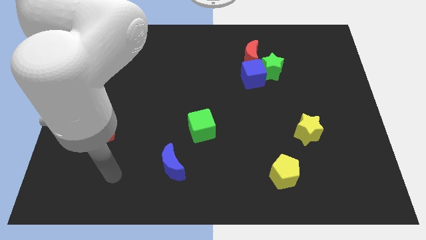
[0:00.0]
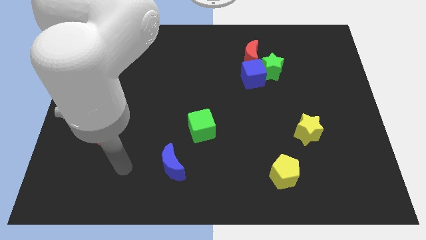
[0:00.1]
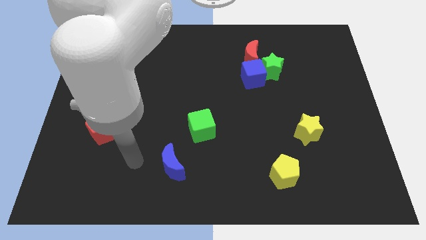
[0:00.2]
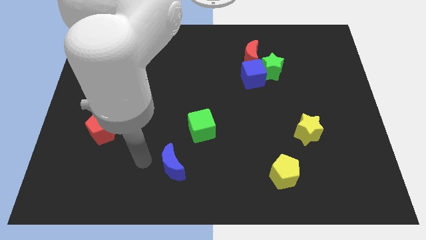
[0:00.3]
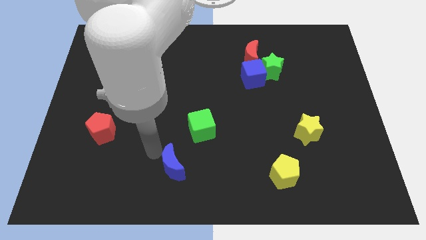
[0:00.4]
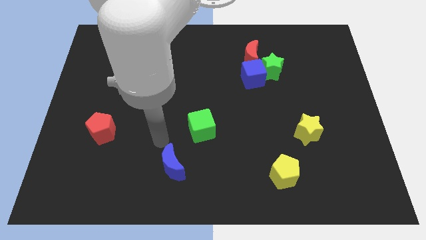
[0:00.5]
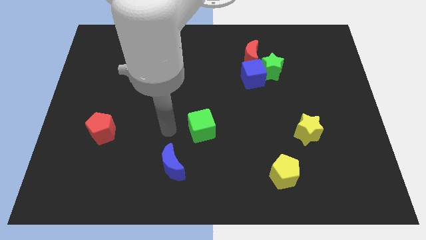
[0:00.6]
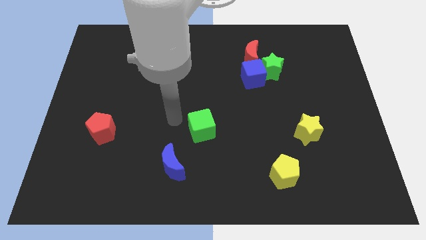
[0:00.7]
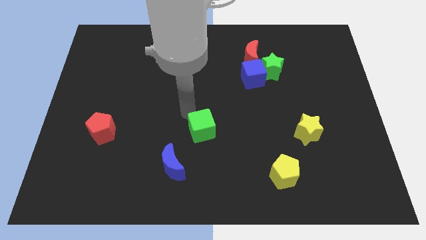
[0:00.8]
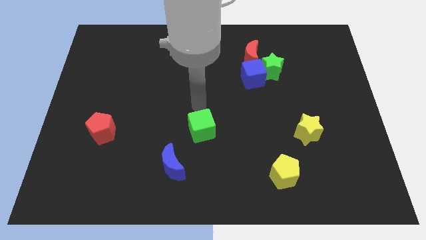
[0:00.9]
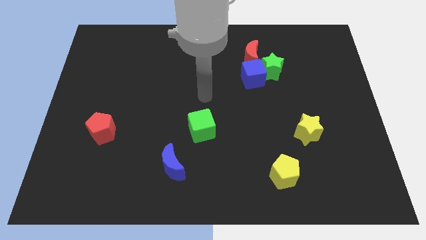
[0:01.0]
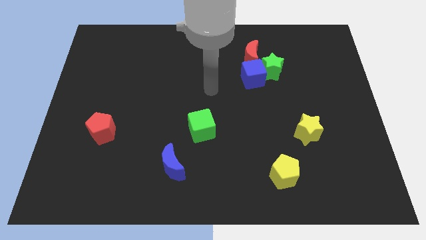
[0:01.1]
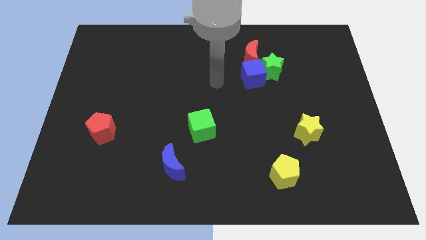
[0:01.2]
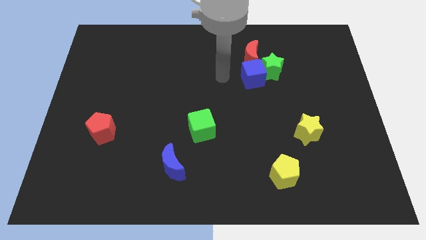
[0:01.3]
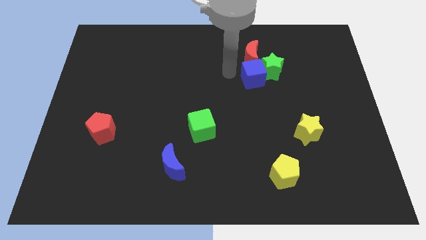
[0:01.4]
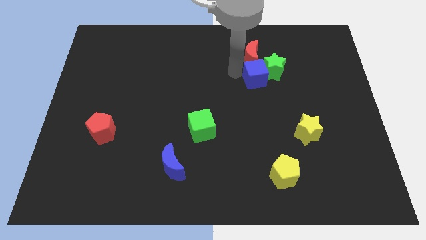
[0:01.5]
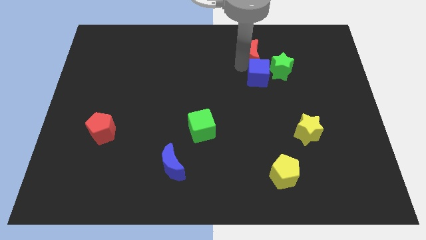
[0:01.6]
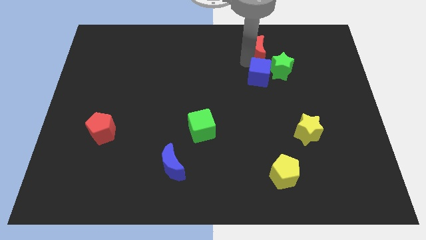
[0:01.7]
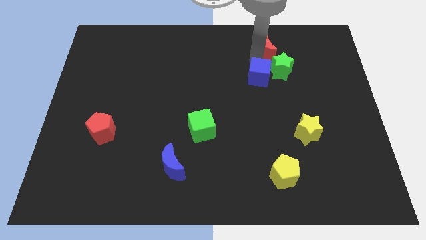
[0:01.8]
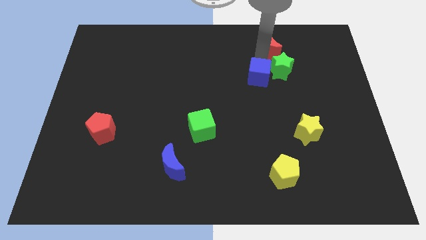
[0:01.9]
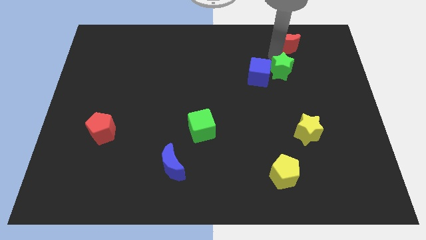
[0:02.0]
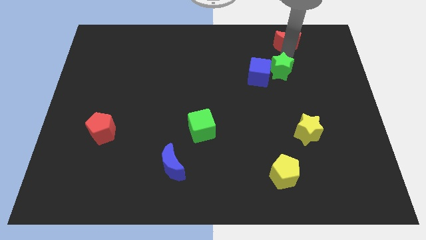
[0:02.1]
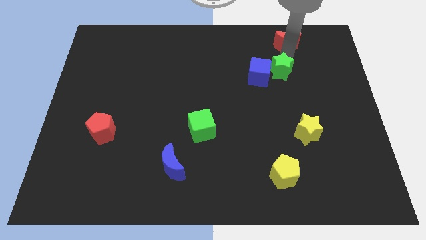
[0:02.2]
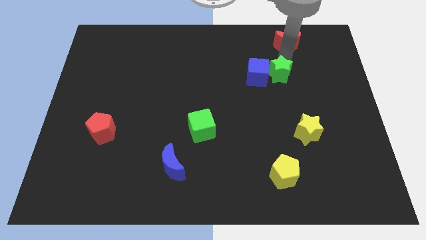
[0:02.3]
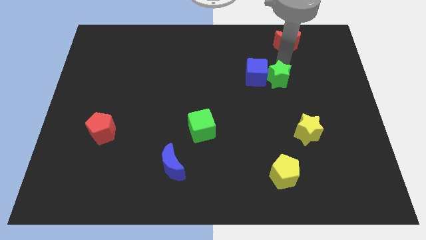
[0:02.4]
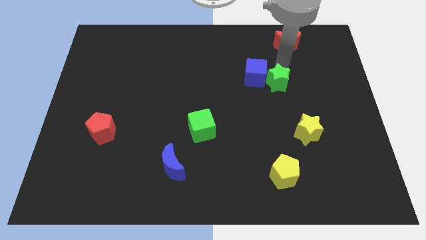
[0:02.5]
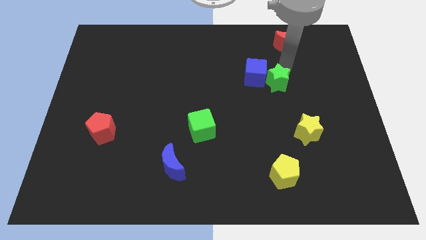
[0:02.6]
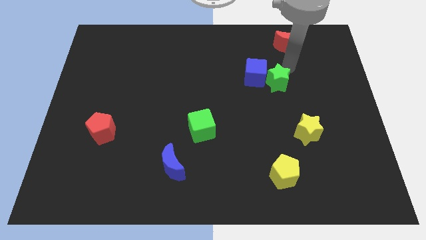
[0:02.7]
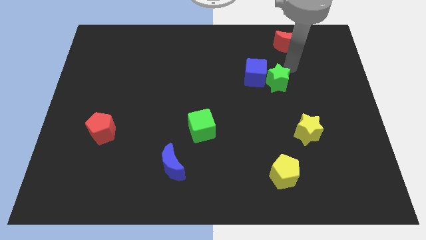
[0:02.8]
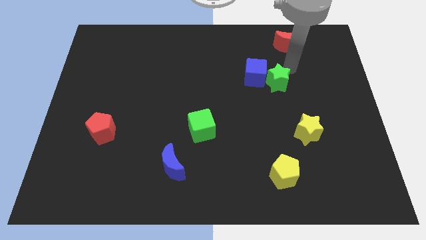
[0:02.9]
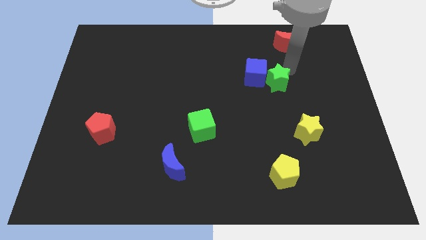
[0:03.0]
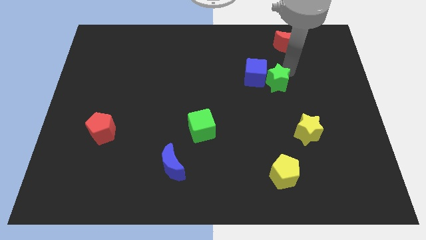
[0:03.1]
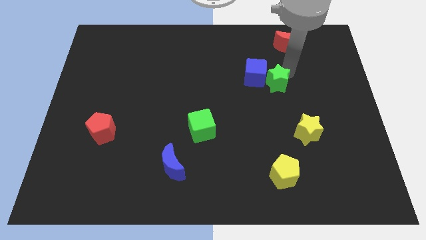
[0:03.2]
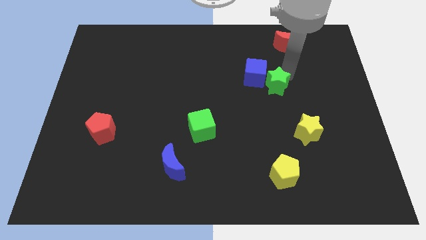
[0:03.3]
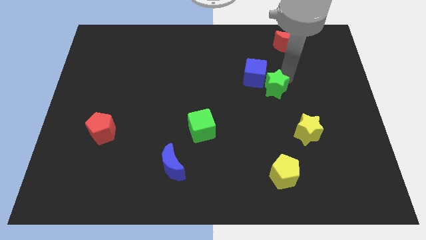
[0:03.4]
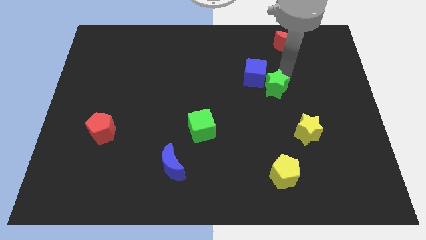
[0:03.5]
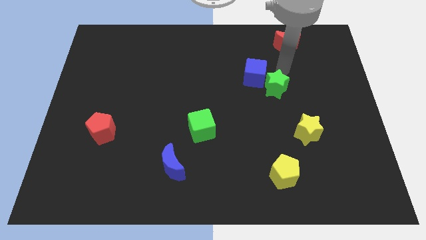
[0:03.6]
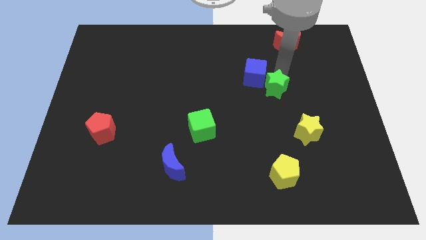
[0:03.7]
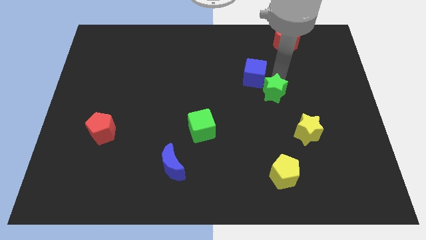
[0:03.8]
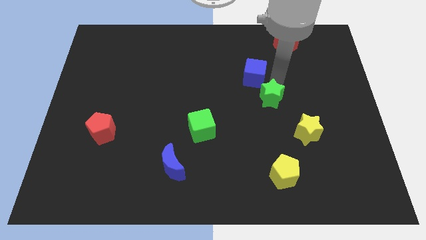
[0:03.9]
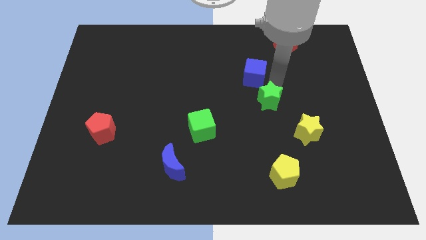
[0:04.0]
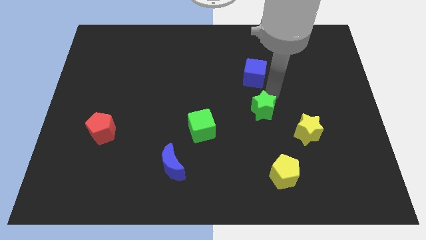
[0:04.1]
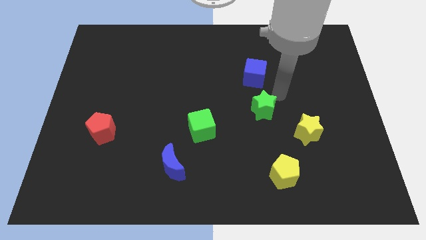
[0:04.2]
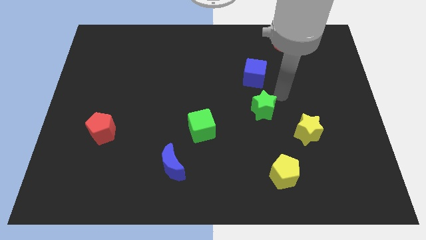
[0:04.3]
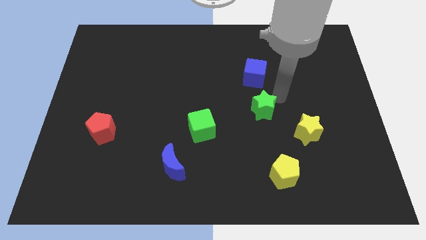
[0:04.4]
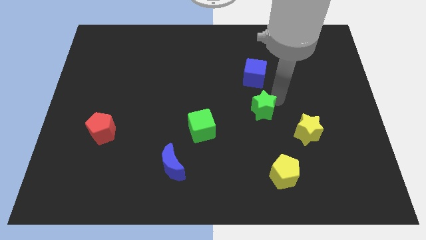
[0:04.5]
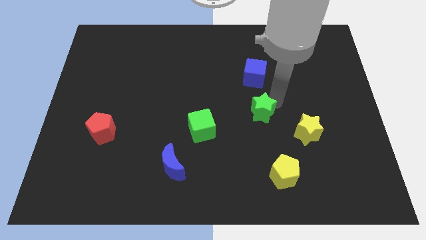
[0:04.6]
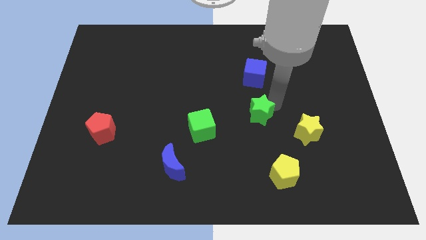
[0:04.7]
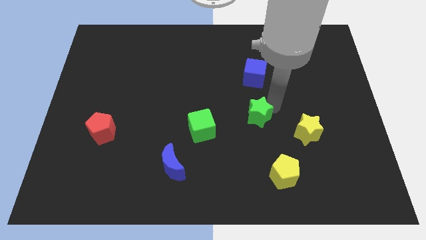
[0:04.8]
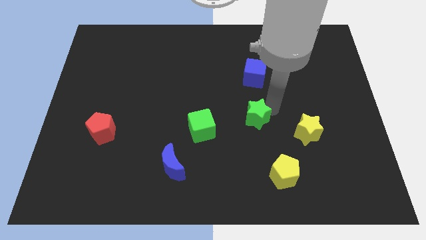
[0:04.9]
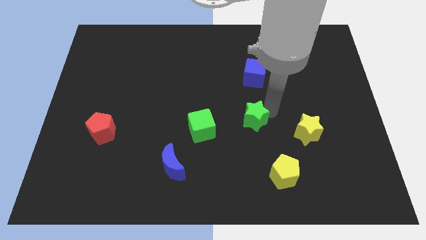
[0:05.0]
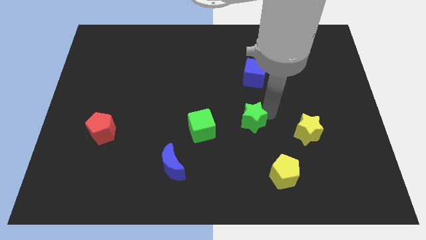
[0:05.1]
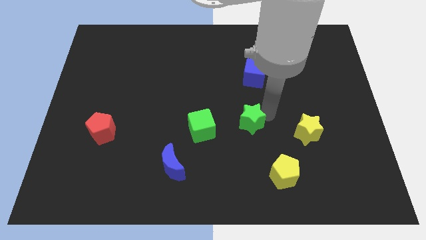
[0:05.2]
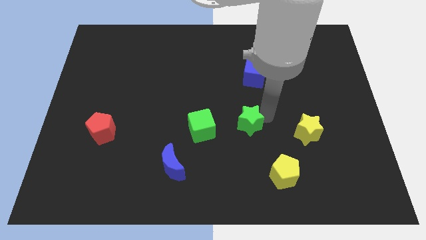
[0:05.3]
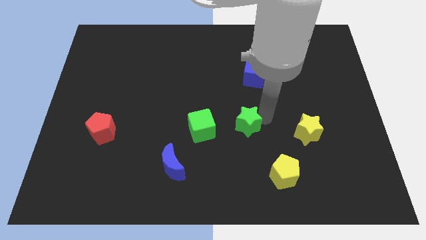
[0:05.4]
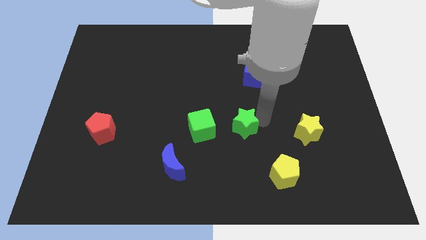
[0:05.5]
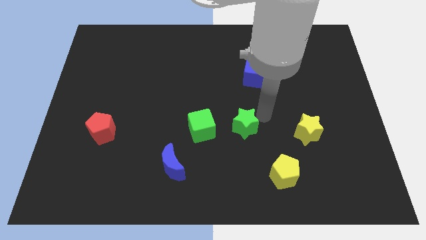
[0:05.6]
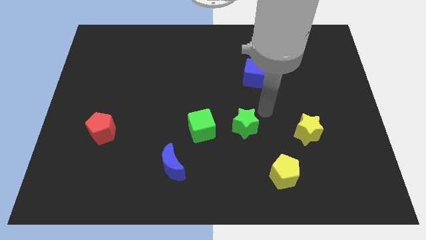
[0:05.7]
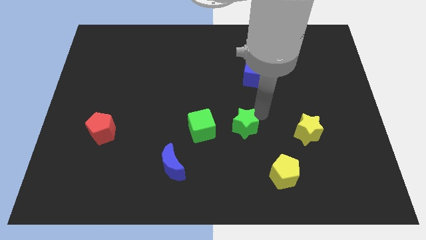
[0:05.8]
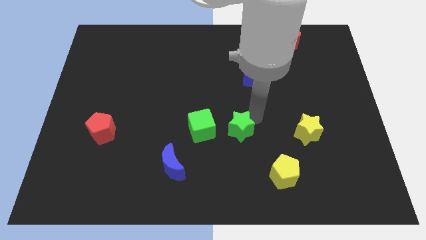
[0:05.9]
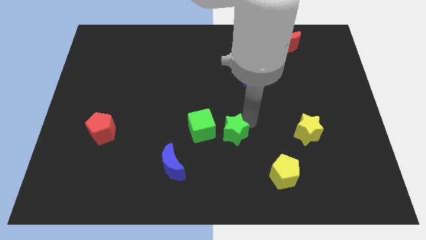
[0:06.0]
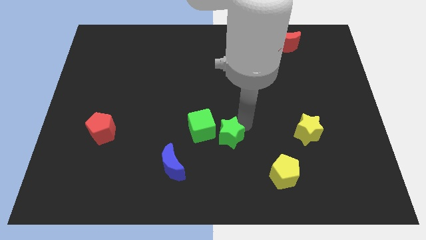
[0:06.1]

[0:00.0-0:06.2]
push the green star downwards and to the left

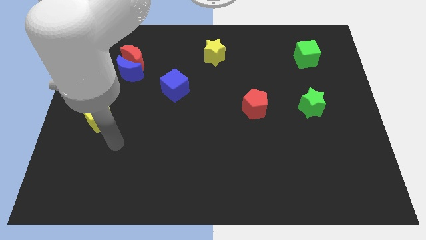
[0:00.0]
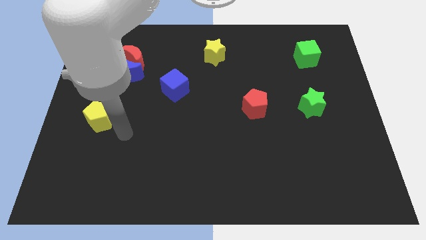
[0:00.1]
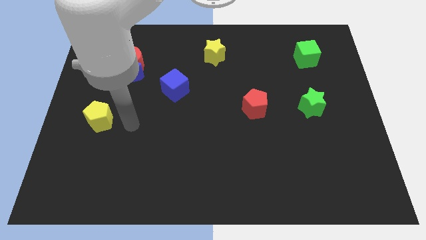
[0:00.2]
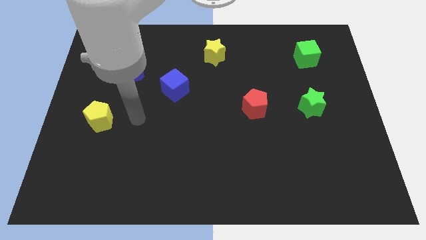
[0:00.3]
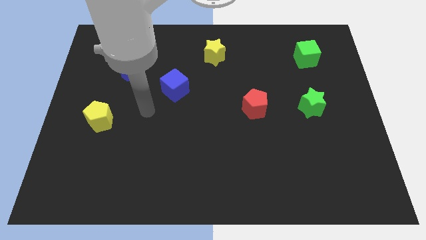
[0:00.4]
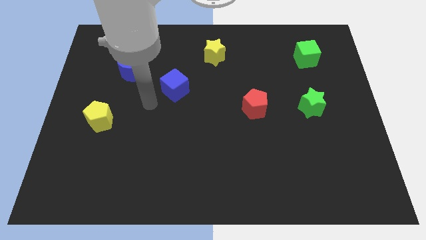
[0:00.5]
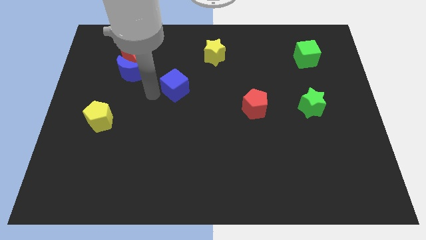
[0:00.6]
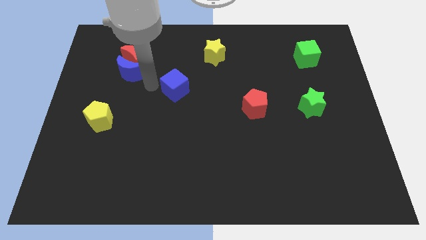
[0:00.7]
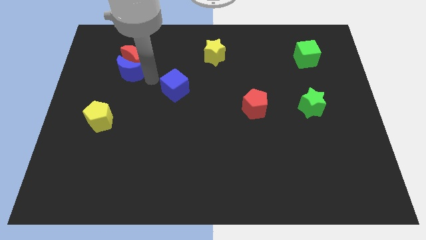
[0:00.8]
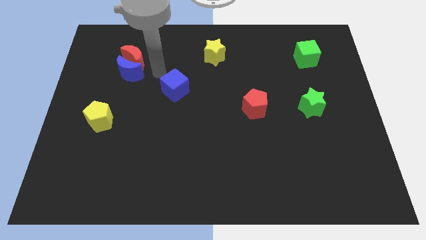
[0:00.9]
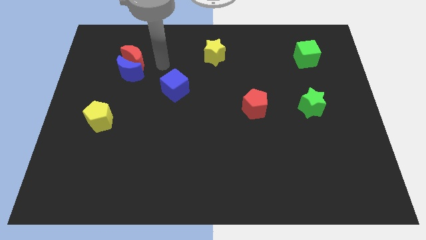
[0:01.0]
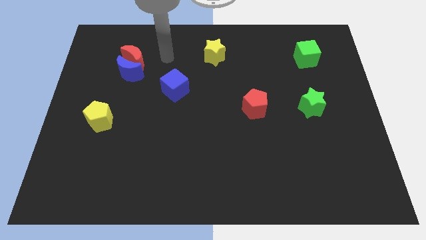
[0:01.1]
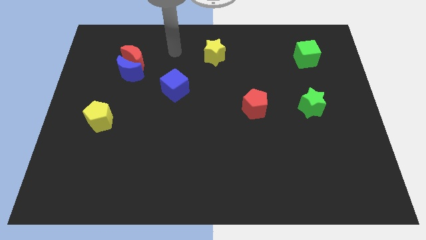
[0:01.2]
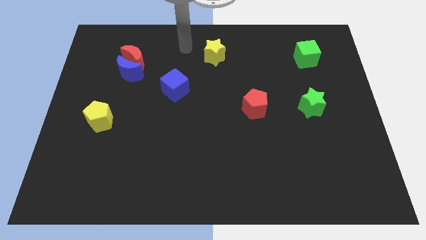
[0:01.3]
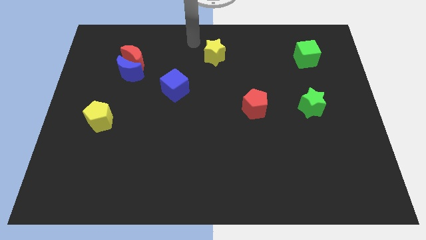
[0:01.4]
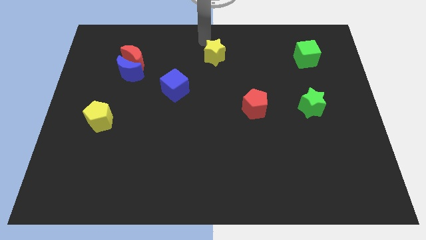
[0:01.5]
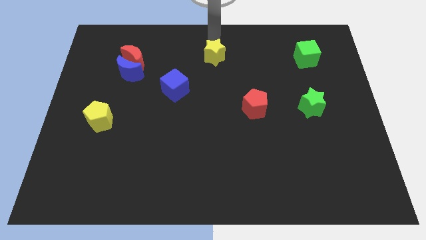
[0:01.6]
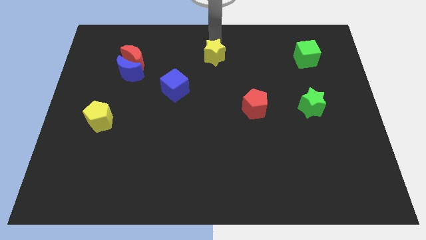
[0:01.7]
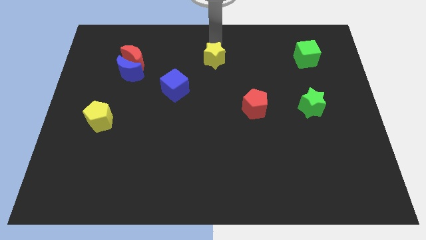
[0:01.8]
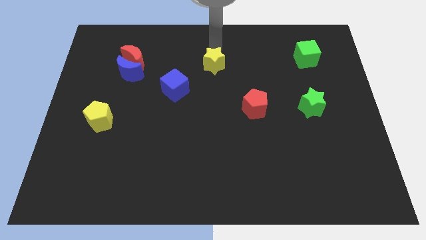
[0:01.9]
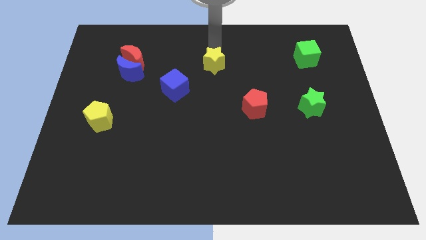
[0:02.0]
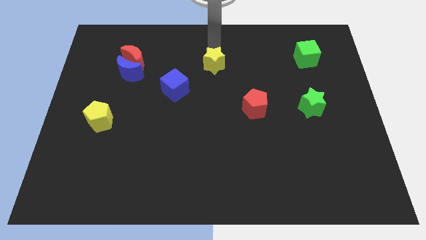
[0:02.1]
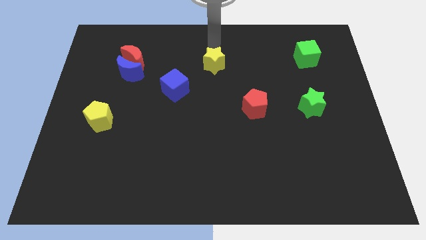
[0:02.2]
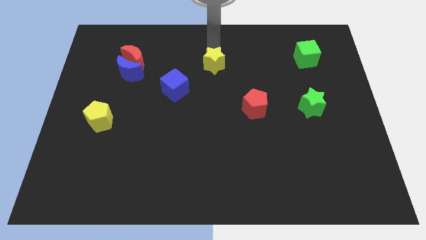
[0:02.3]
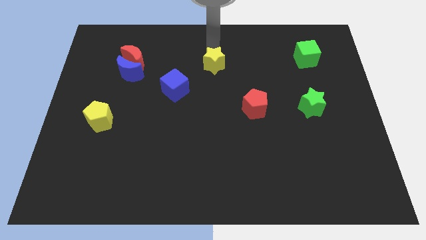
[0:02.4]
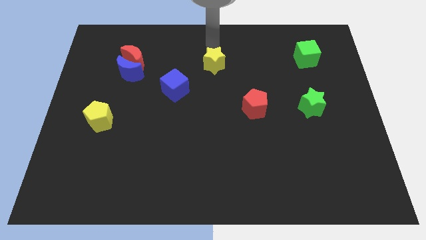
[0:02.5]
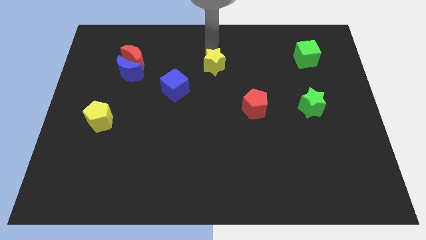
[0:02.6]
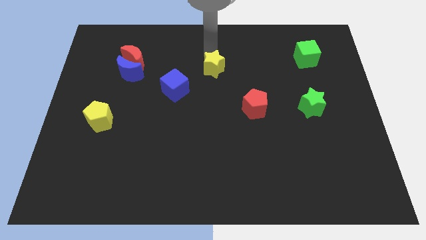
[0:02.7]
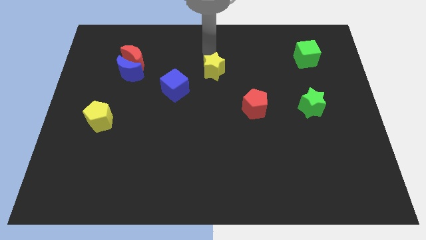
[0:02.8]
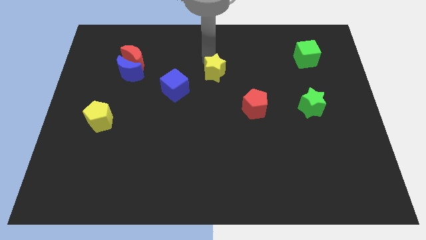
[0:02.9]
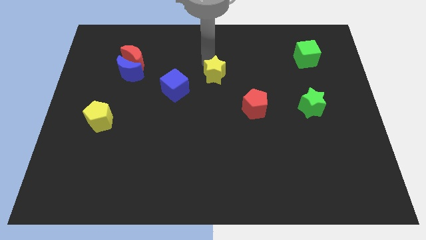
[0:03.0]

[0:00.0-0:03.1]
push the yellow star slightly downwards
